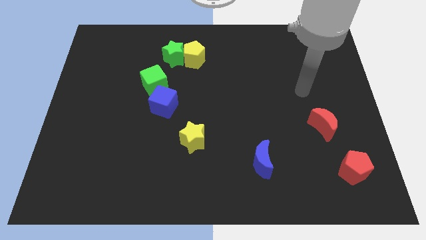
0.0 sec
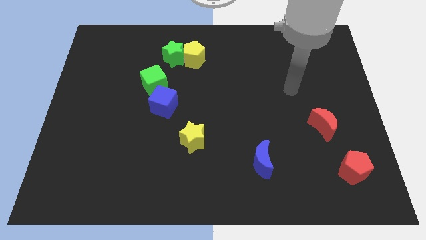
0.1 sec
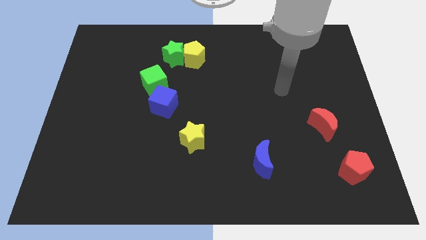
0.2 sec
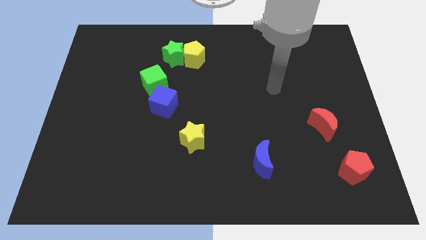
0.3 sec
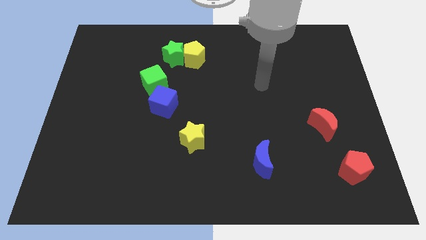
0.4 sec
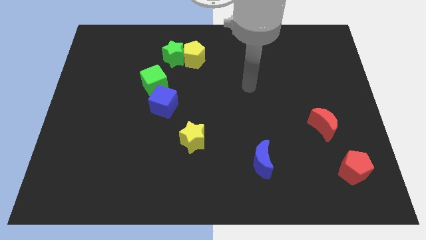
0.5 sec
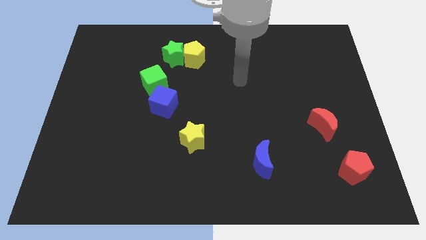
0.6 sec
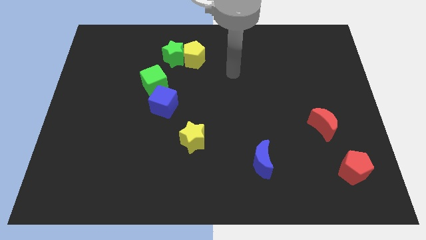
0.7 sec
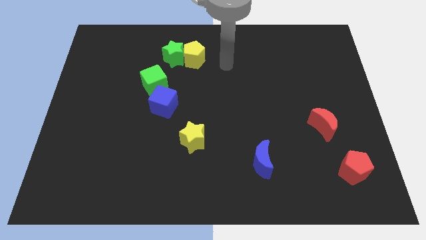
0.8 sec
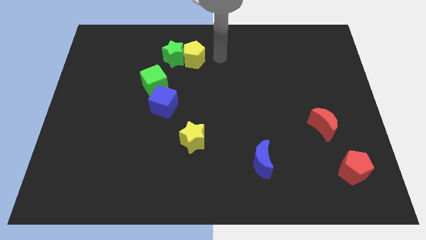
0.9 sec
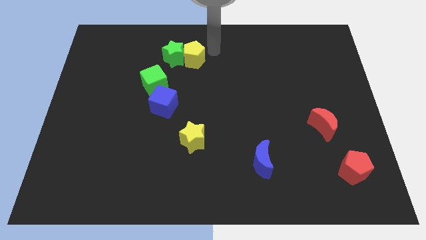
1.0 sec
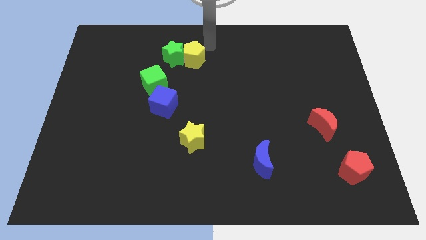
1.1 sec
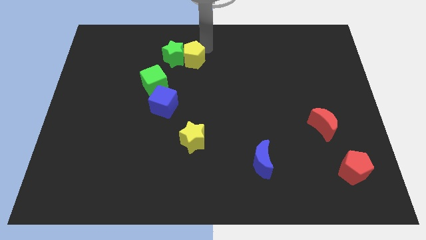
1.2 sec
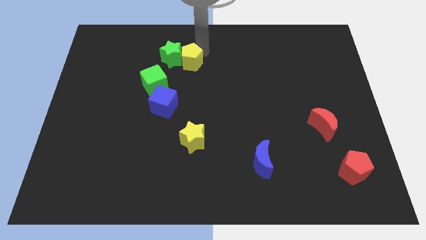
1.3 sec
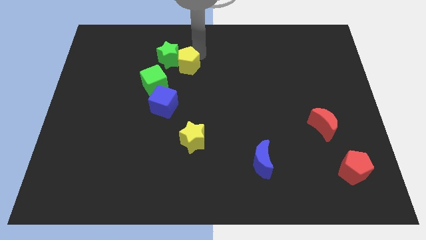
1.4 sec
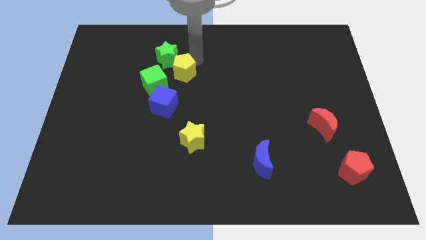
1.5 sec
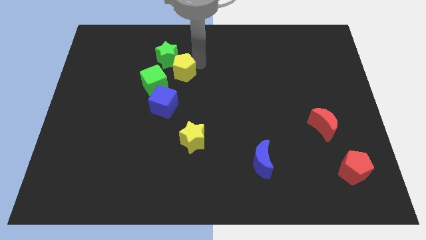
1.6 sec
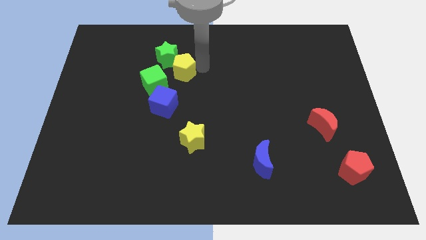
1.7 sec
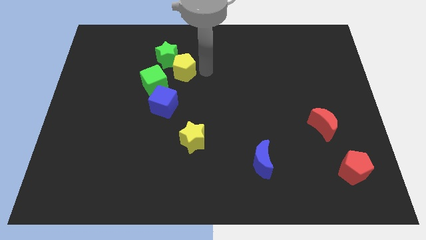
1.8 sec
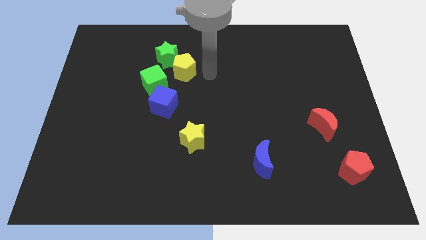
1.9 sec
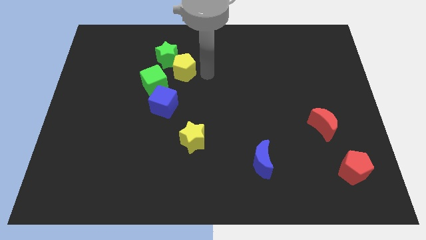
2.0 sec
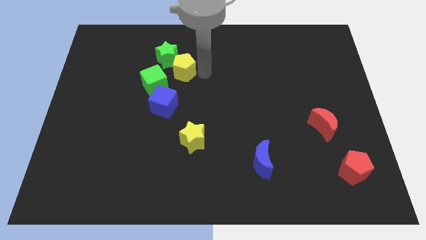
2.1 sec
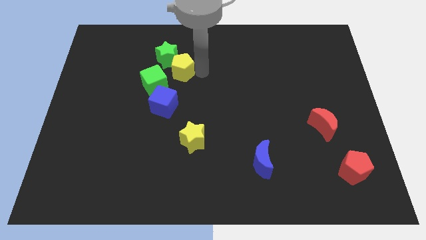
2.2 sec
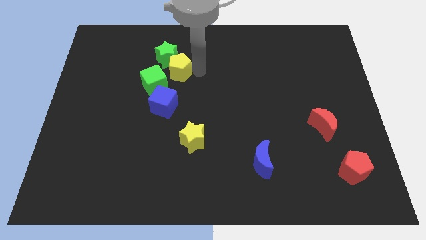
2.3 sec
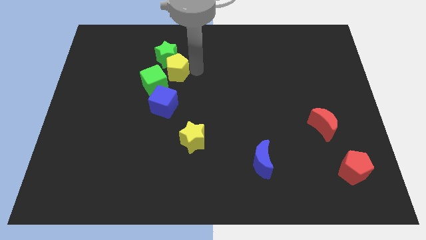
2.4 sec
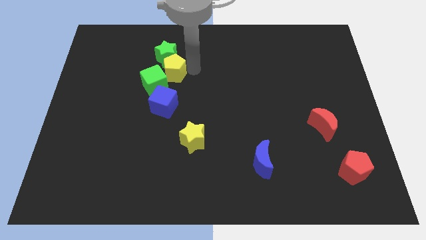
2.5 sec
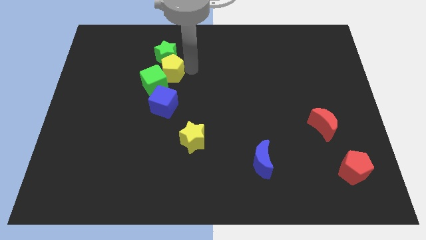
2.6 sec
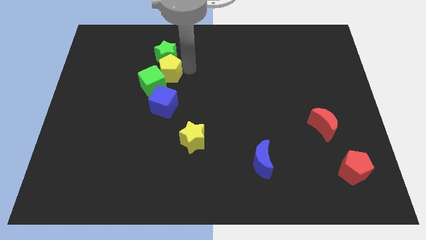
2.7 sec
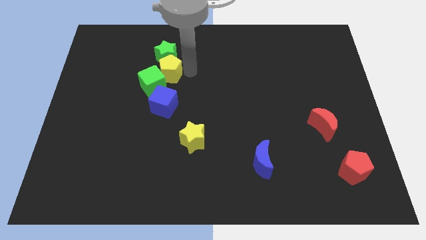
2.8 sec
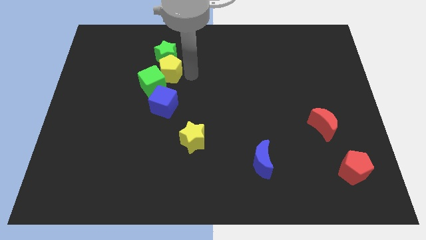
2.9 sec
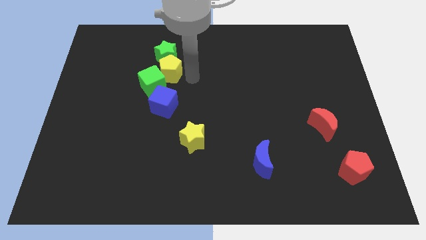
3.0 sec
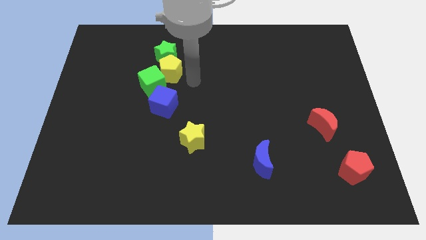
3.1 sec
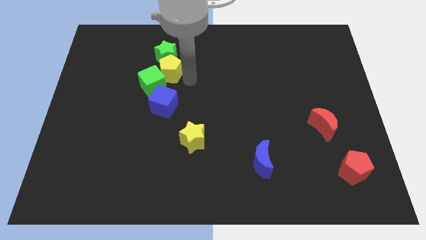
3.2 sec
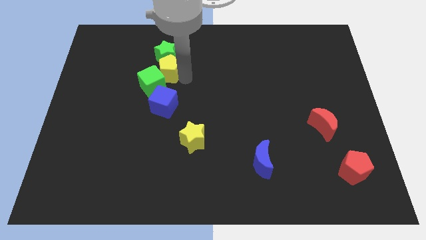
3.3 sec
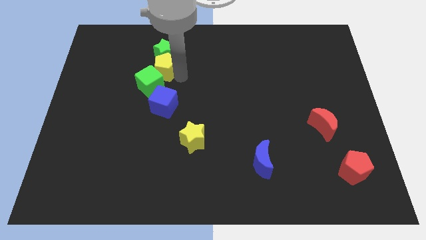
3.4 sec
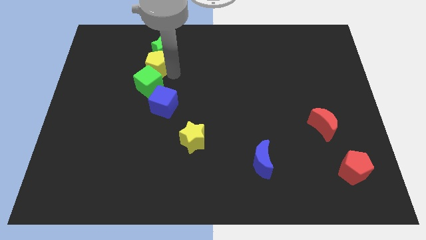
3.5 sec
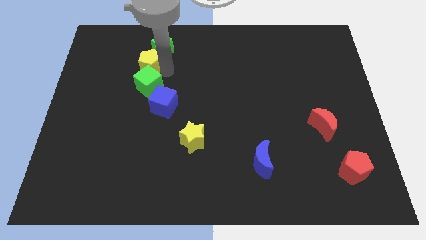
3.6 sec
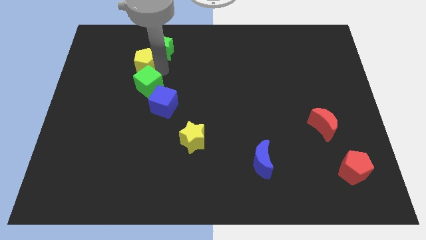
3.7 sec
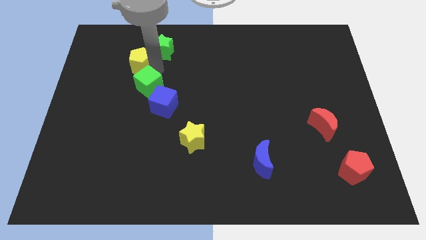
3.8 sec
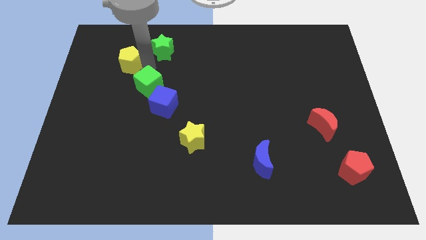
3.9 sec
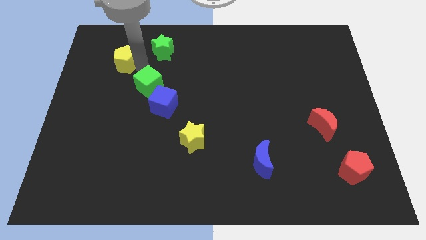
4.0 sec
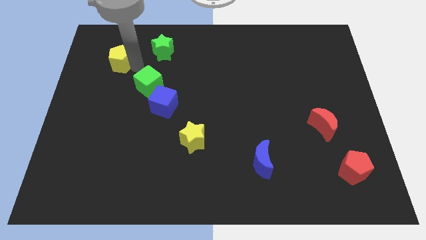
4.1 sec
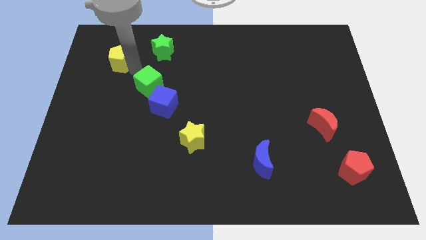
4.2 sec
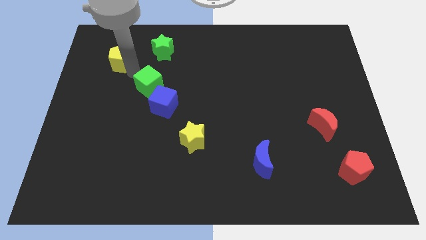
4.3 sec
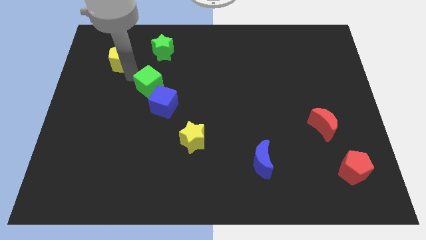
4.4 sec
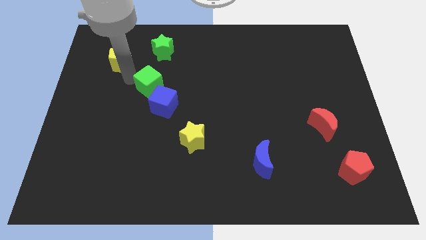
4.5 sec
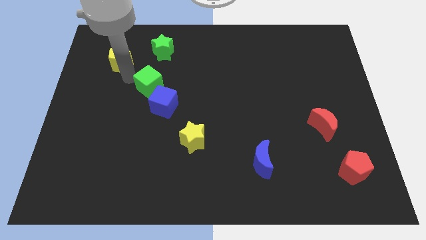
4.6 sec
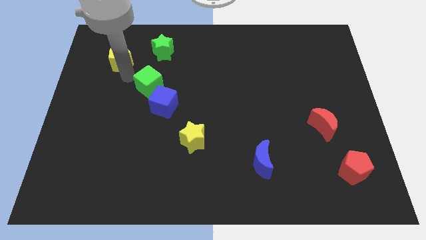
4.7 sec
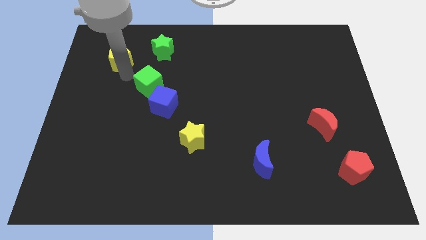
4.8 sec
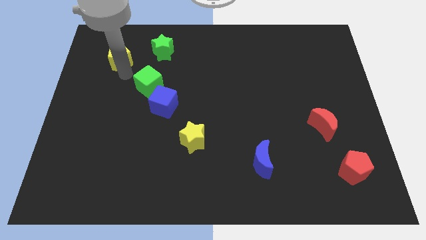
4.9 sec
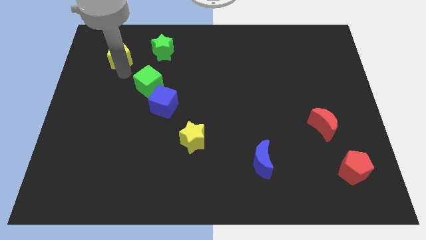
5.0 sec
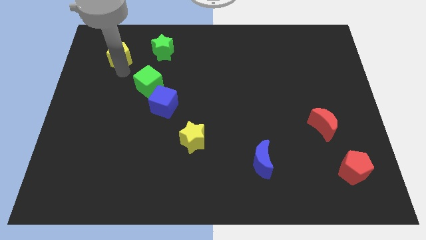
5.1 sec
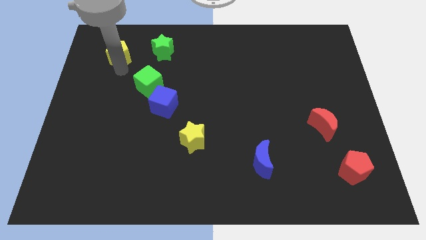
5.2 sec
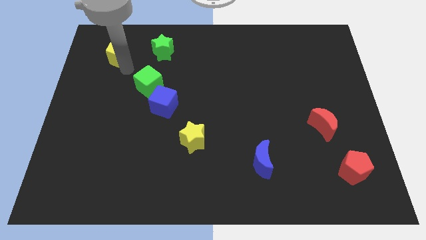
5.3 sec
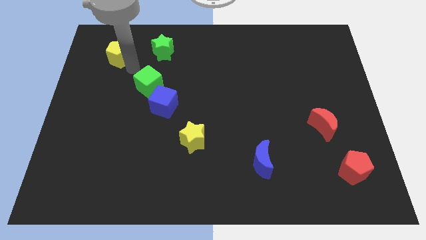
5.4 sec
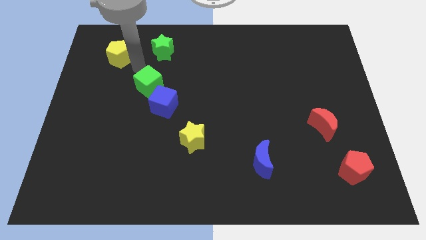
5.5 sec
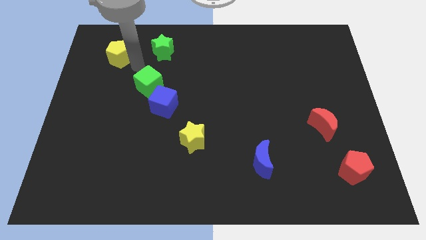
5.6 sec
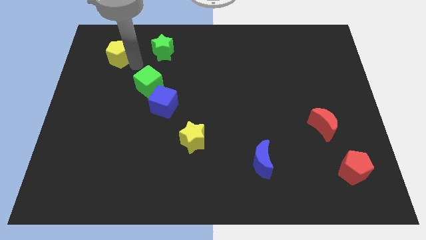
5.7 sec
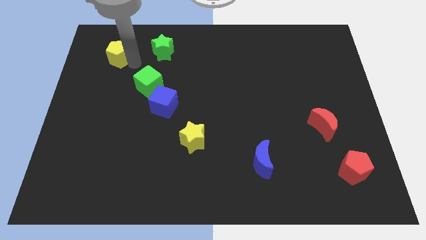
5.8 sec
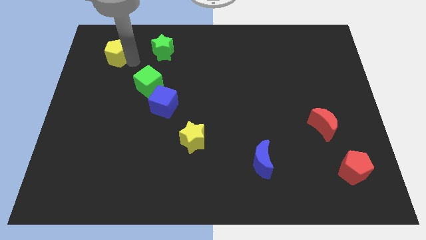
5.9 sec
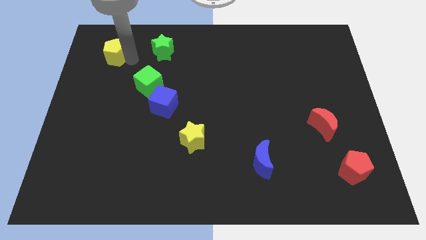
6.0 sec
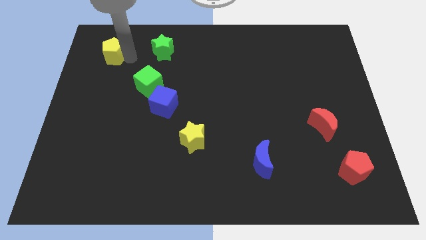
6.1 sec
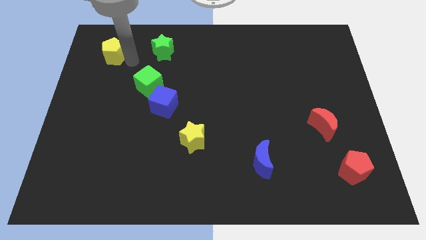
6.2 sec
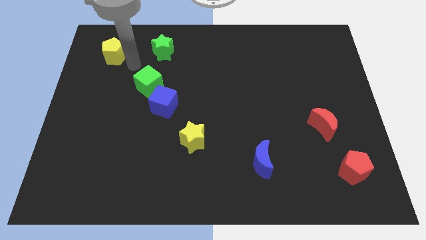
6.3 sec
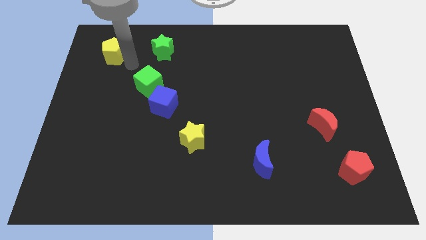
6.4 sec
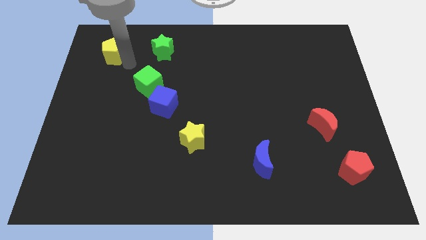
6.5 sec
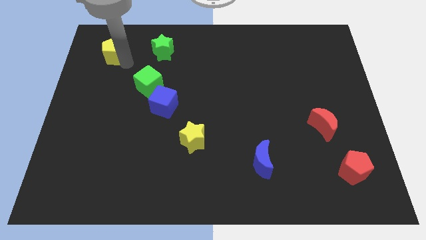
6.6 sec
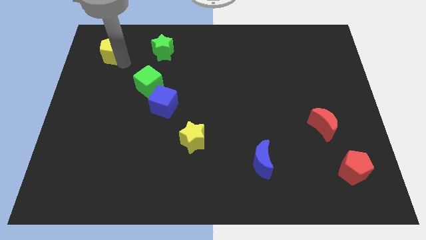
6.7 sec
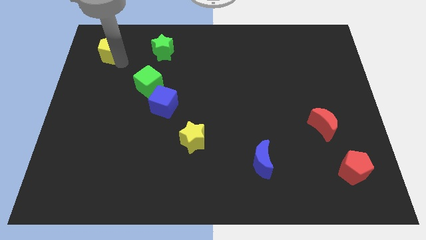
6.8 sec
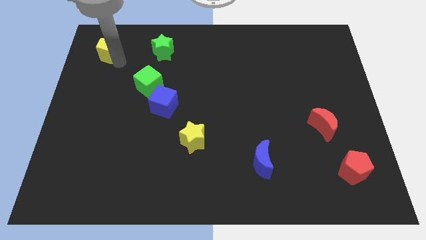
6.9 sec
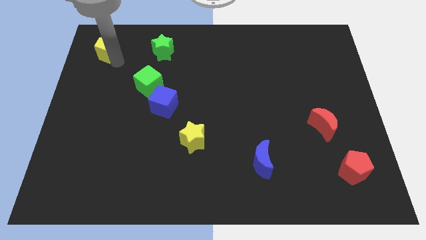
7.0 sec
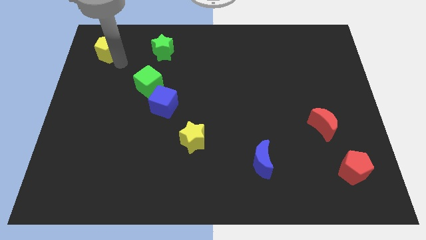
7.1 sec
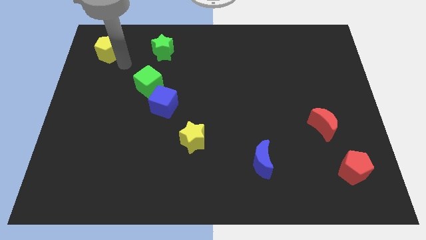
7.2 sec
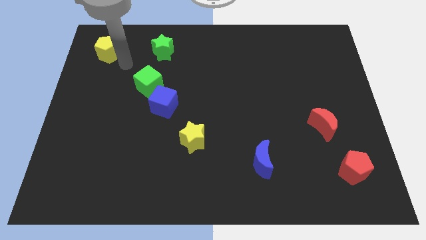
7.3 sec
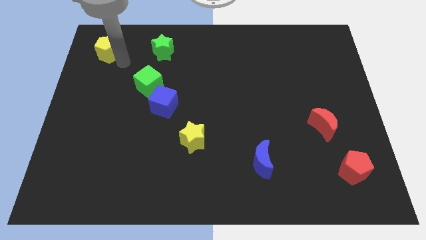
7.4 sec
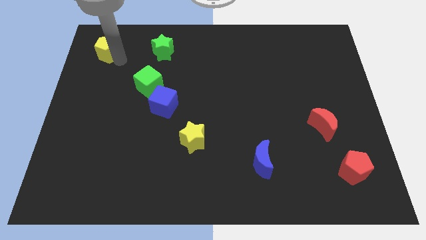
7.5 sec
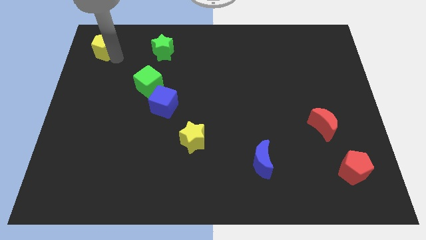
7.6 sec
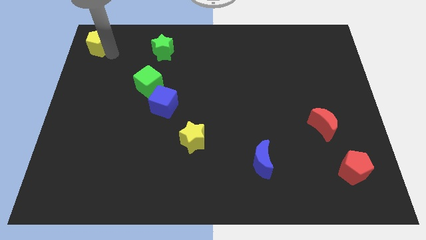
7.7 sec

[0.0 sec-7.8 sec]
slide the yellow pentagon to the top left corner
